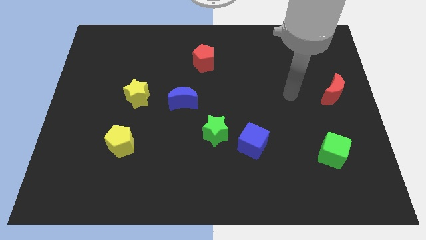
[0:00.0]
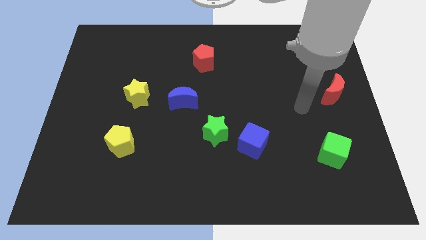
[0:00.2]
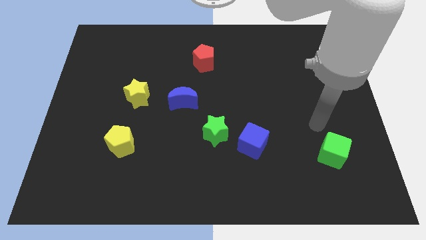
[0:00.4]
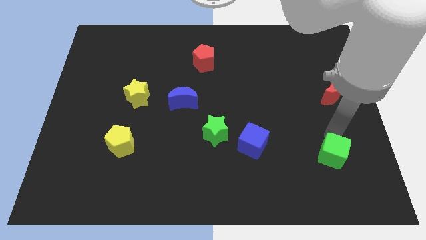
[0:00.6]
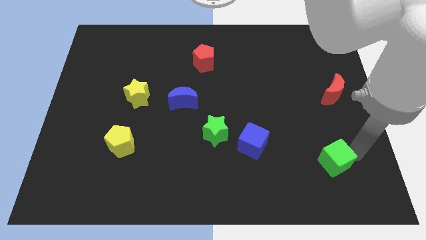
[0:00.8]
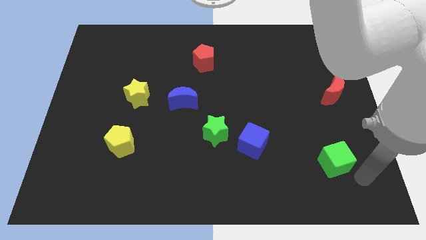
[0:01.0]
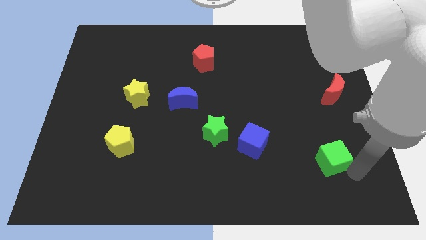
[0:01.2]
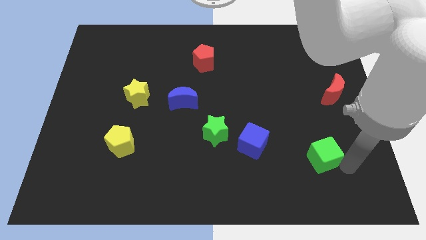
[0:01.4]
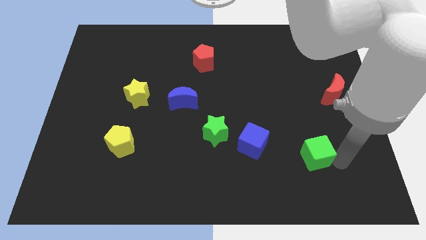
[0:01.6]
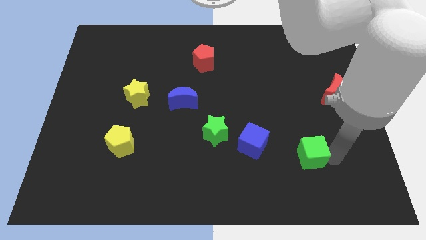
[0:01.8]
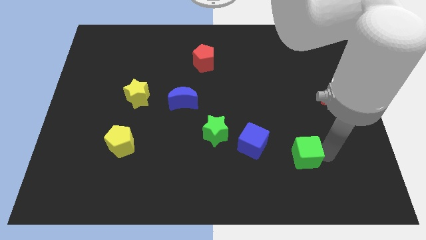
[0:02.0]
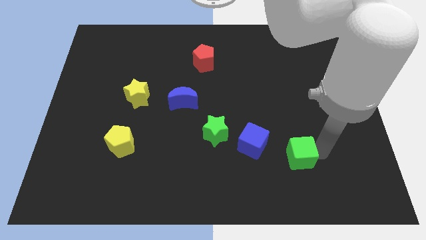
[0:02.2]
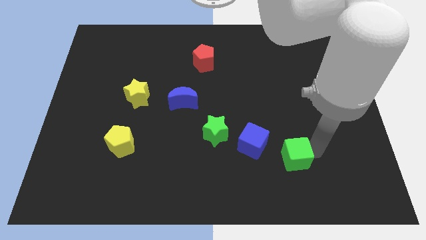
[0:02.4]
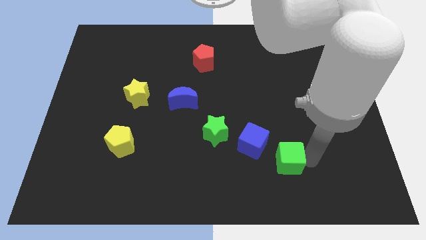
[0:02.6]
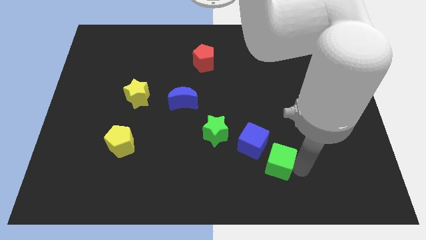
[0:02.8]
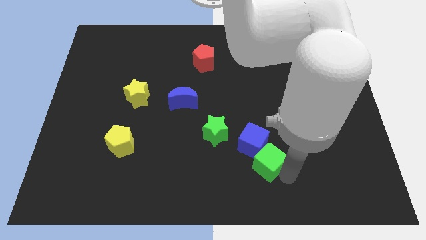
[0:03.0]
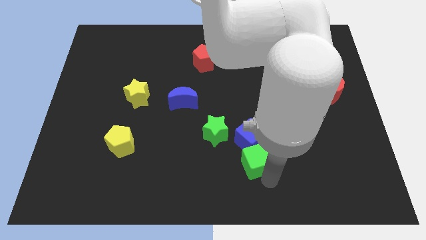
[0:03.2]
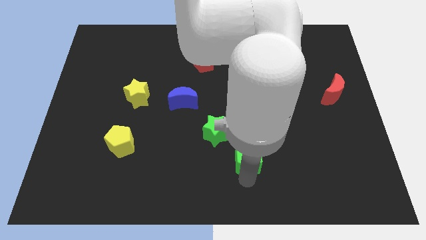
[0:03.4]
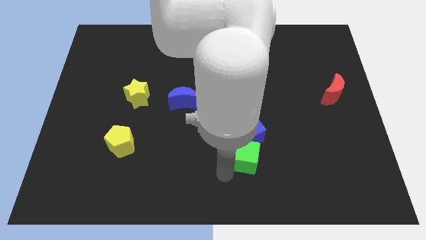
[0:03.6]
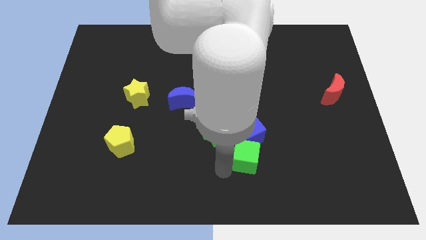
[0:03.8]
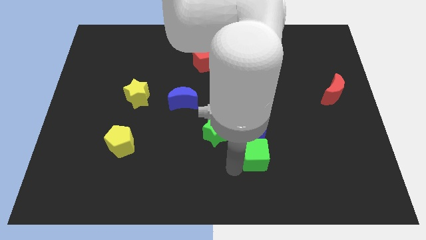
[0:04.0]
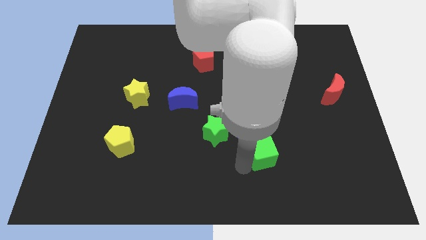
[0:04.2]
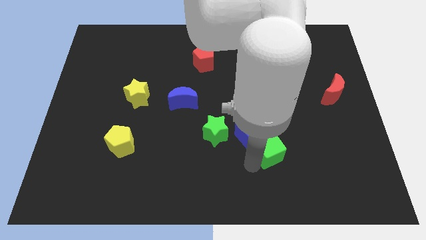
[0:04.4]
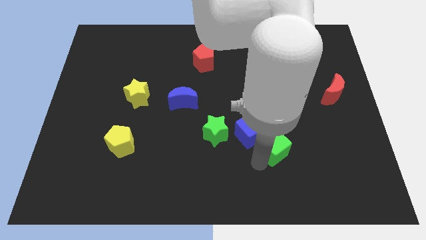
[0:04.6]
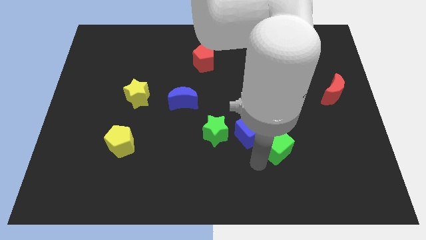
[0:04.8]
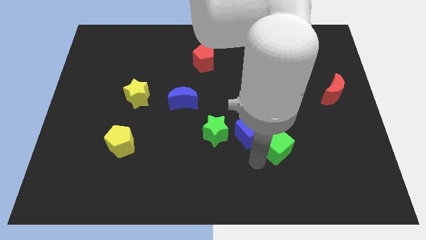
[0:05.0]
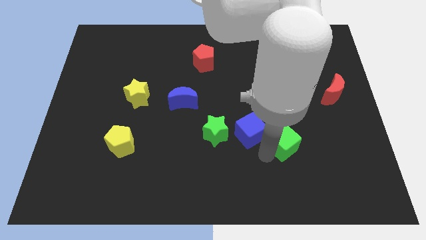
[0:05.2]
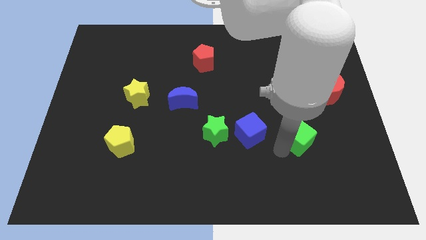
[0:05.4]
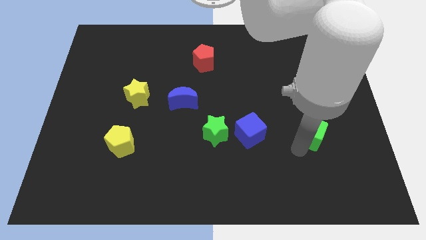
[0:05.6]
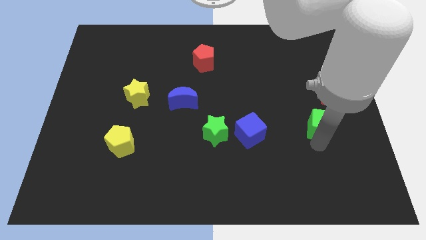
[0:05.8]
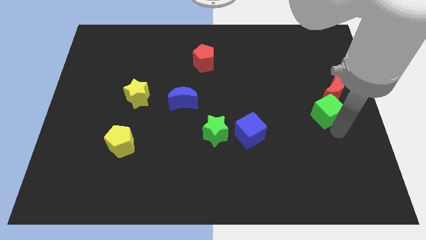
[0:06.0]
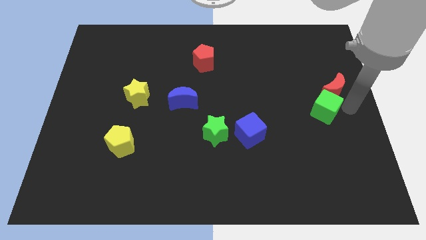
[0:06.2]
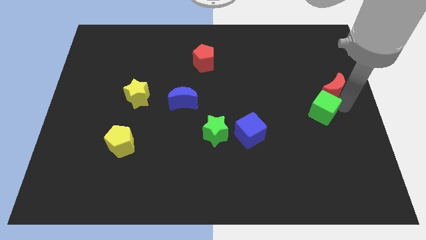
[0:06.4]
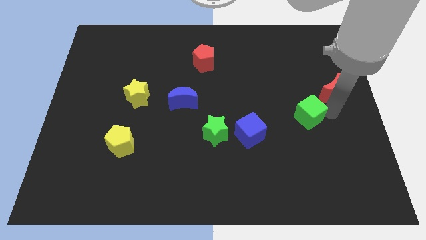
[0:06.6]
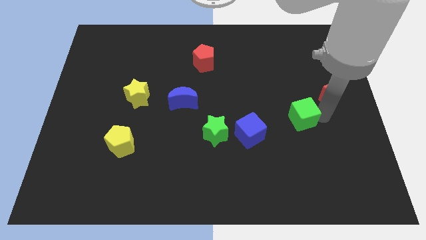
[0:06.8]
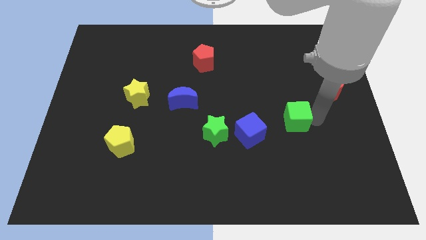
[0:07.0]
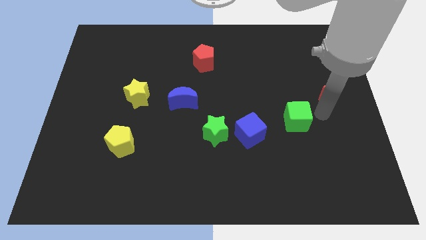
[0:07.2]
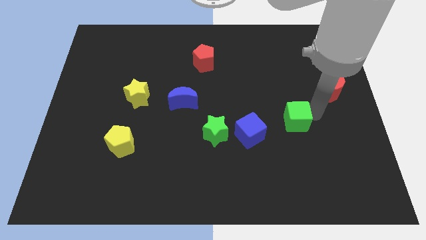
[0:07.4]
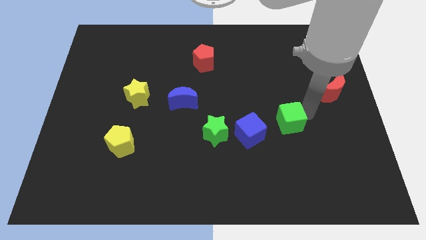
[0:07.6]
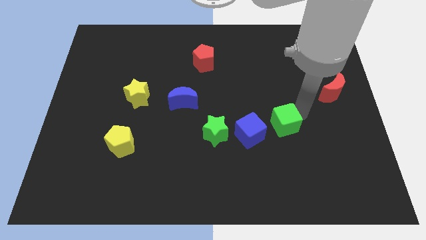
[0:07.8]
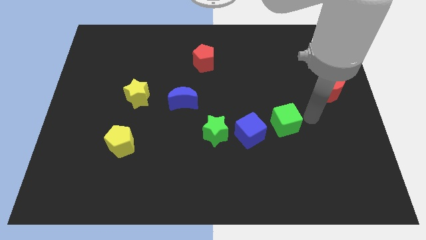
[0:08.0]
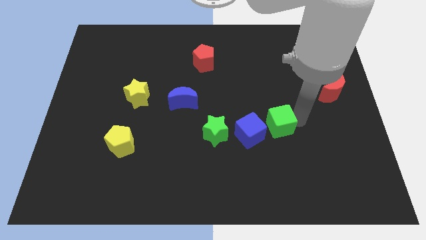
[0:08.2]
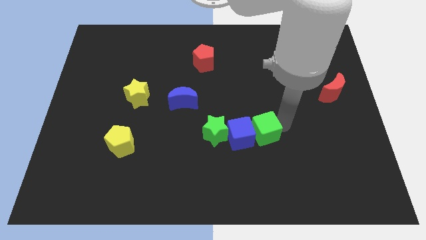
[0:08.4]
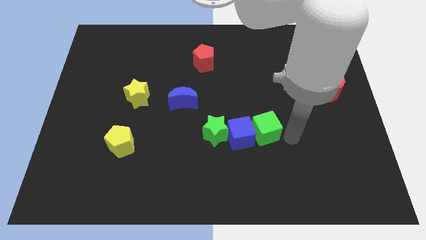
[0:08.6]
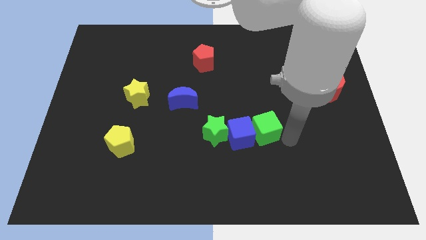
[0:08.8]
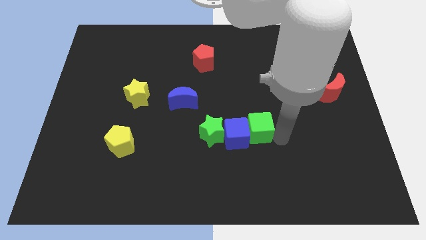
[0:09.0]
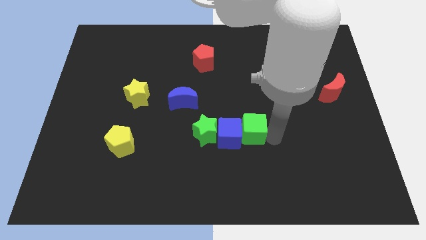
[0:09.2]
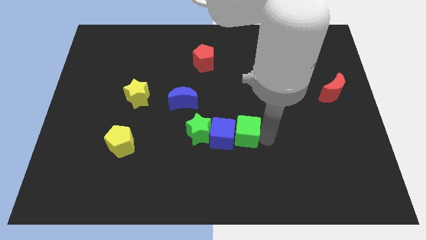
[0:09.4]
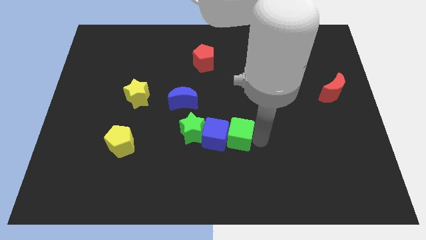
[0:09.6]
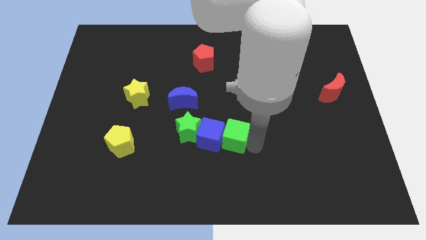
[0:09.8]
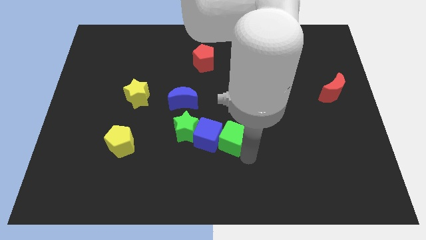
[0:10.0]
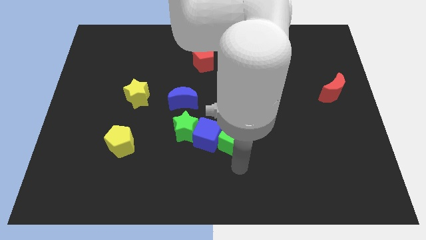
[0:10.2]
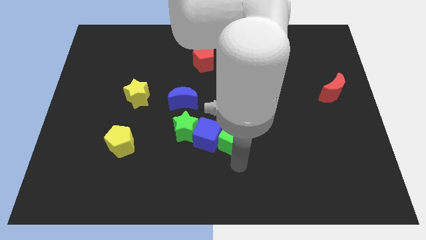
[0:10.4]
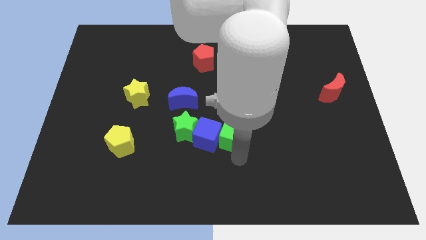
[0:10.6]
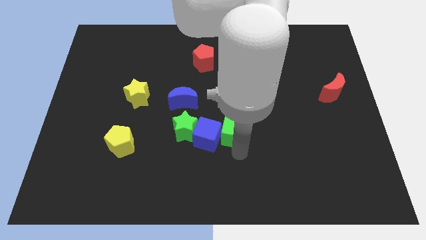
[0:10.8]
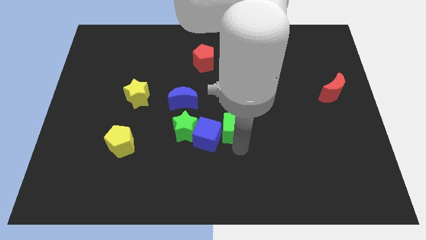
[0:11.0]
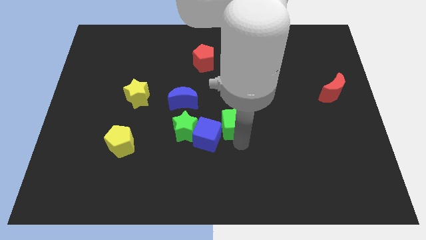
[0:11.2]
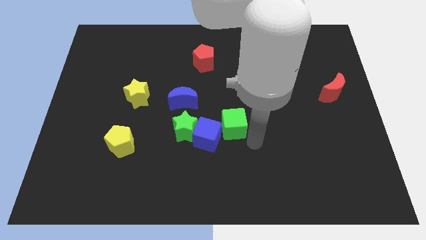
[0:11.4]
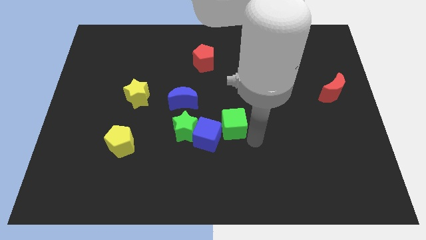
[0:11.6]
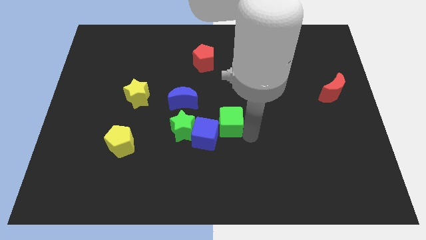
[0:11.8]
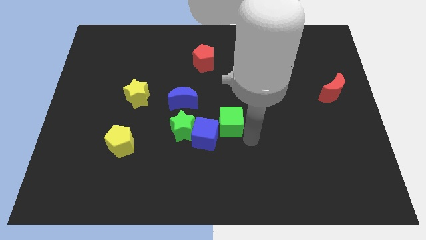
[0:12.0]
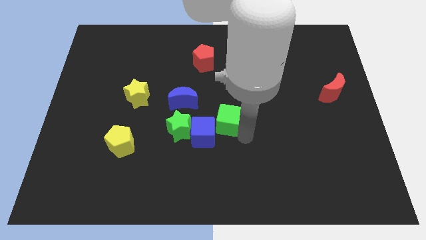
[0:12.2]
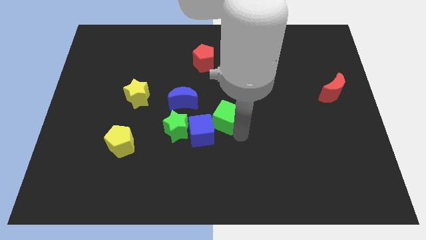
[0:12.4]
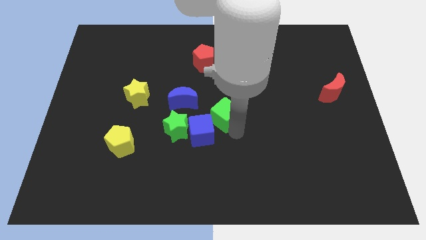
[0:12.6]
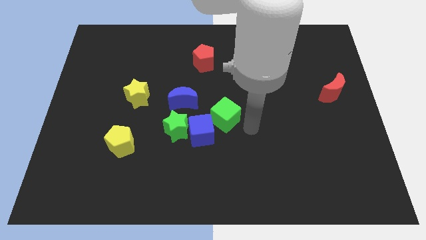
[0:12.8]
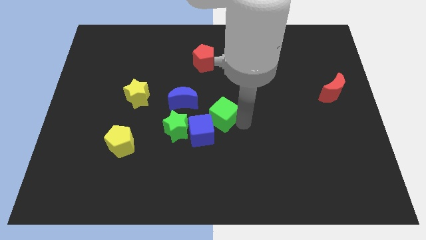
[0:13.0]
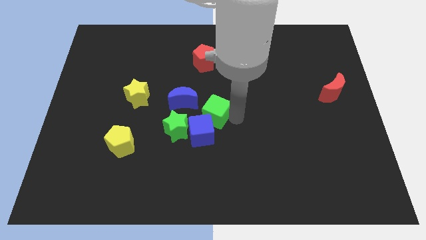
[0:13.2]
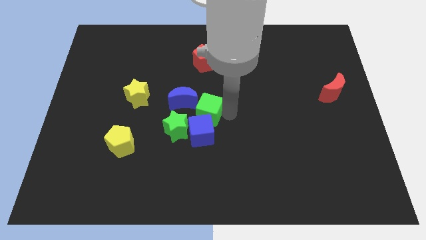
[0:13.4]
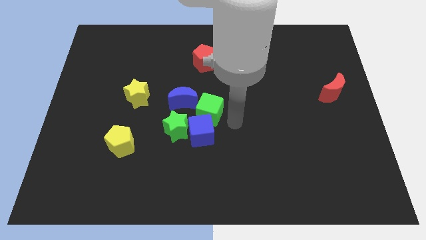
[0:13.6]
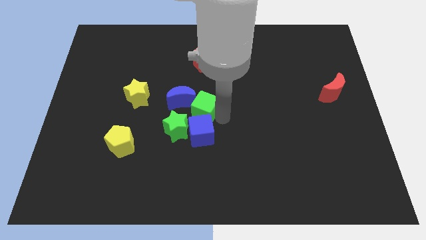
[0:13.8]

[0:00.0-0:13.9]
move the green cube next to the blue moon
